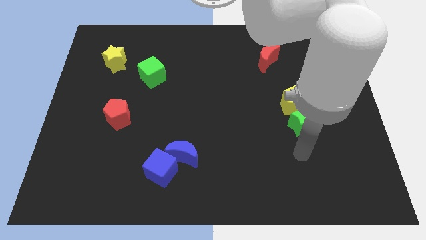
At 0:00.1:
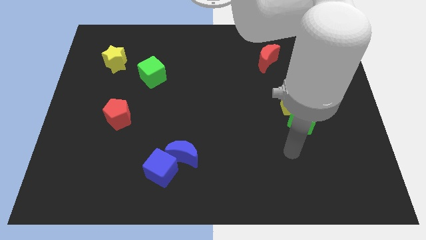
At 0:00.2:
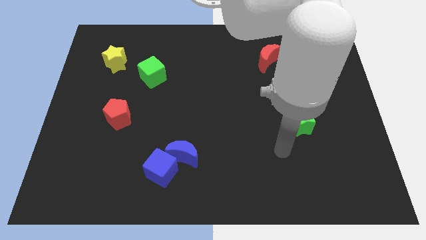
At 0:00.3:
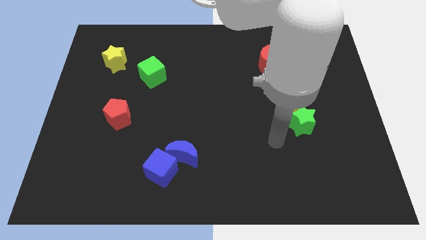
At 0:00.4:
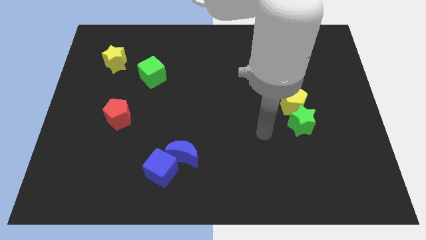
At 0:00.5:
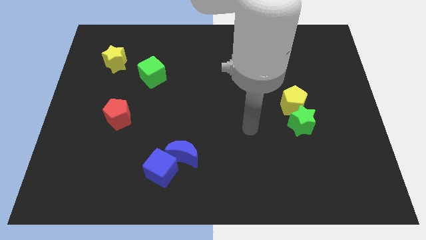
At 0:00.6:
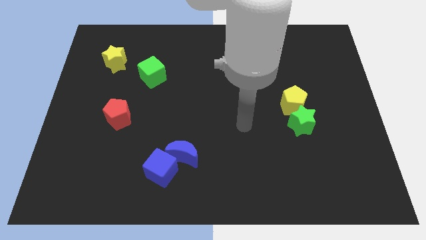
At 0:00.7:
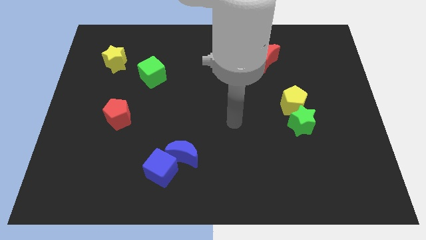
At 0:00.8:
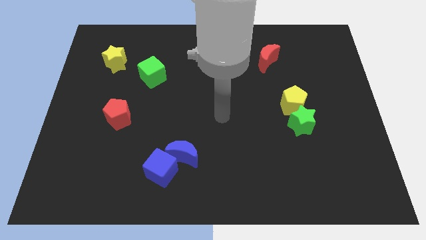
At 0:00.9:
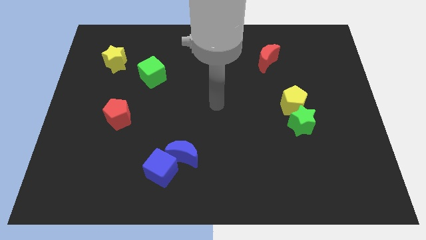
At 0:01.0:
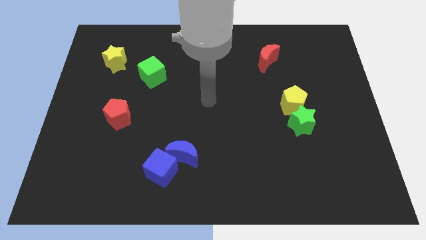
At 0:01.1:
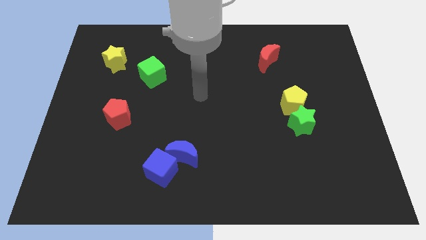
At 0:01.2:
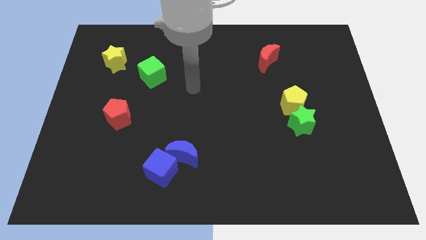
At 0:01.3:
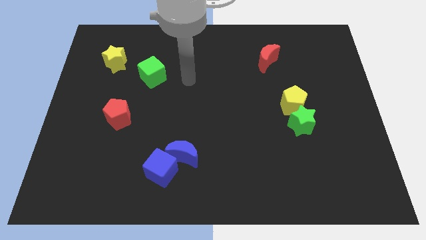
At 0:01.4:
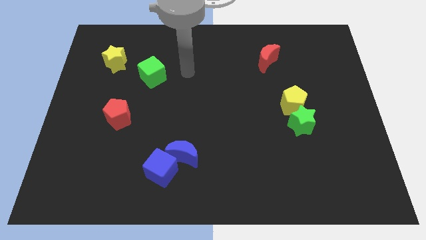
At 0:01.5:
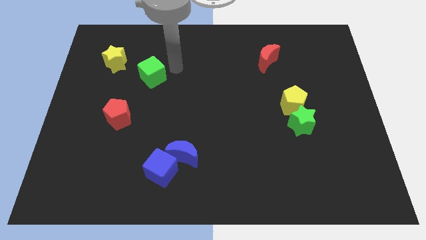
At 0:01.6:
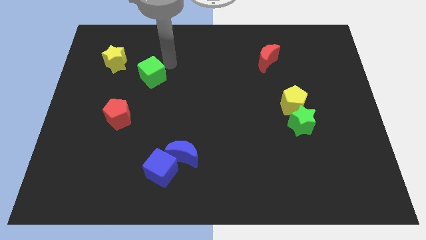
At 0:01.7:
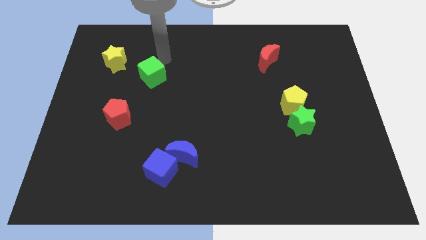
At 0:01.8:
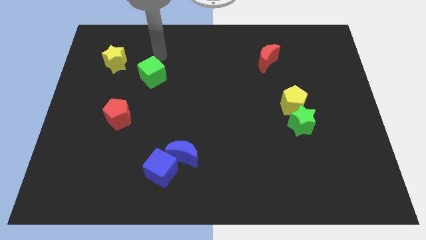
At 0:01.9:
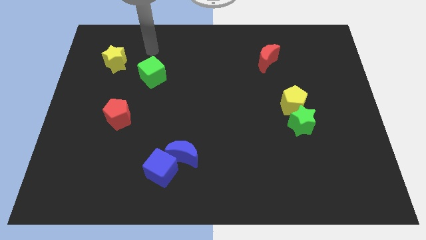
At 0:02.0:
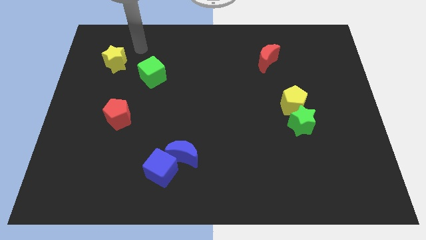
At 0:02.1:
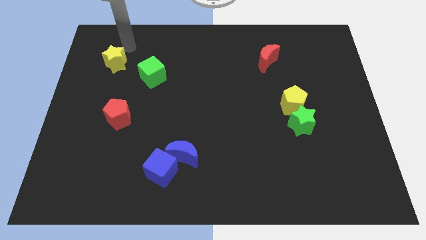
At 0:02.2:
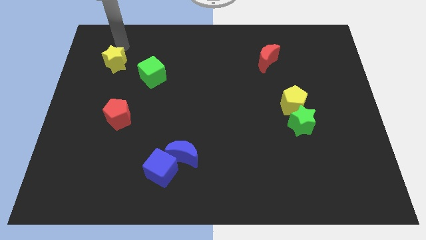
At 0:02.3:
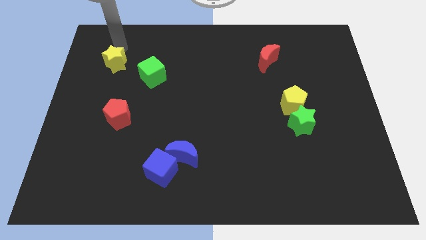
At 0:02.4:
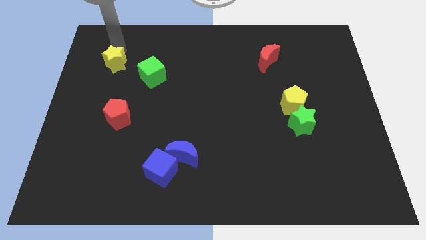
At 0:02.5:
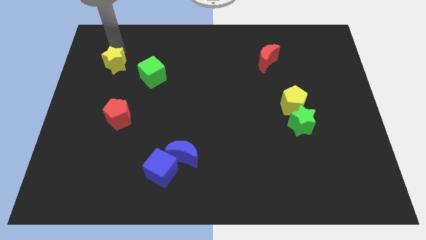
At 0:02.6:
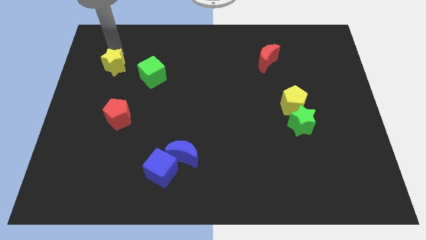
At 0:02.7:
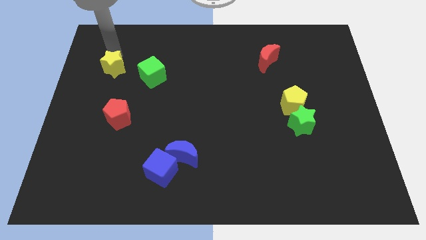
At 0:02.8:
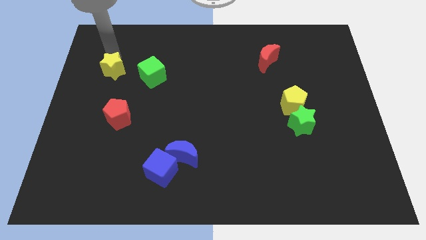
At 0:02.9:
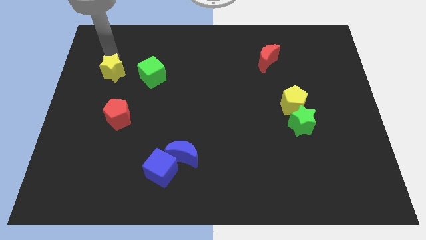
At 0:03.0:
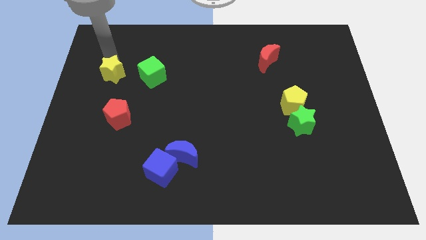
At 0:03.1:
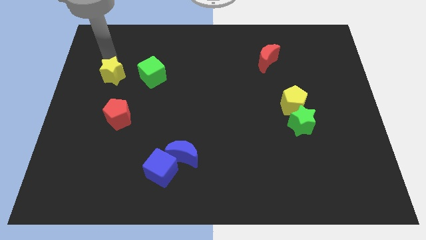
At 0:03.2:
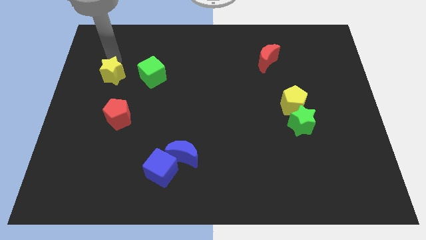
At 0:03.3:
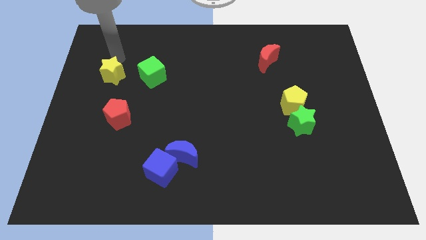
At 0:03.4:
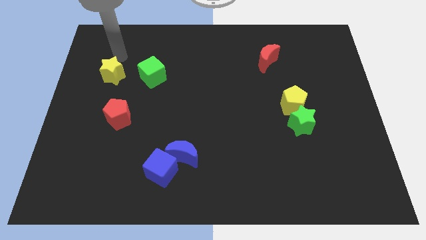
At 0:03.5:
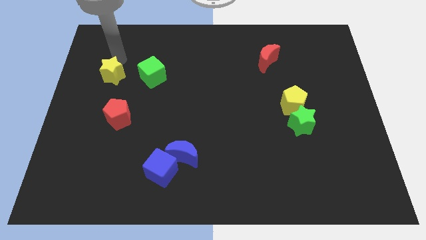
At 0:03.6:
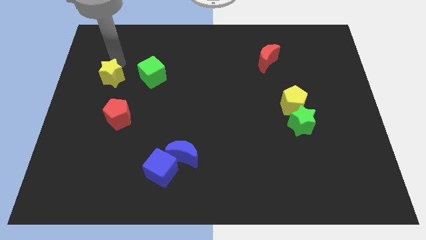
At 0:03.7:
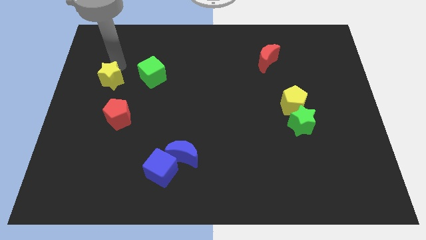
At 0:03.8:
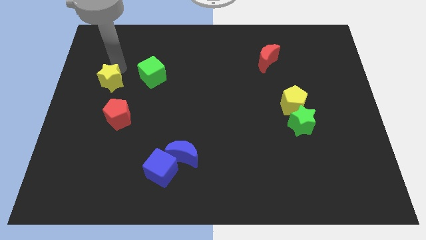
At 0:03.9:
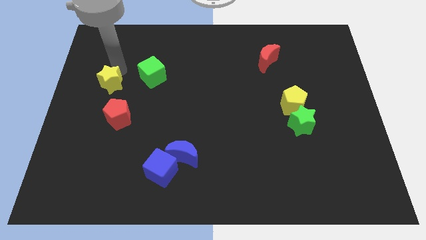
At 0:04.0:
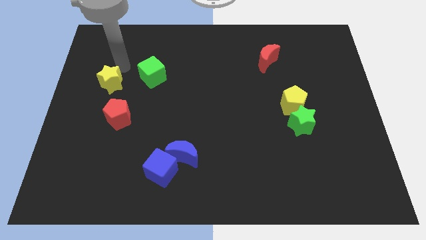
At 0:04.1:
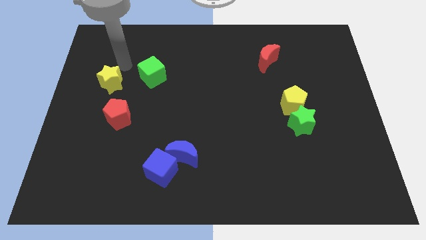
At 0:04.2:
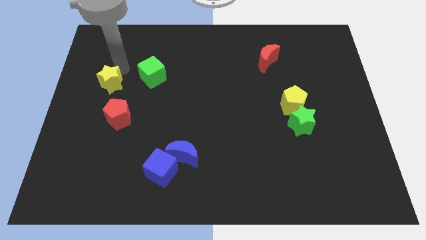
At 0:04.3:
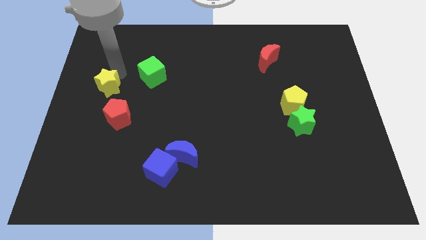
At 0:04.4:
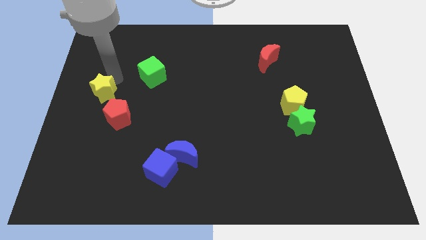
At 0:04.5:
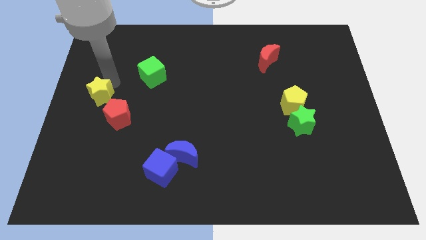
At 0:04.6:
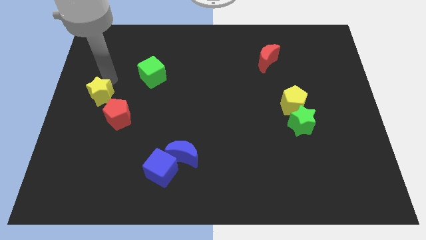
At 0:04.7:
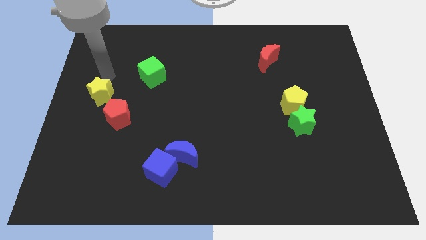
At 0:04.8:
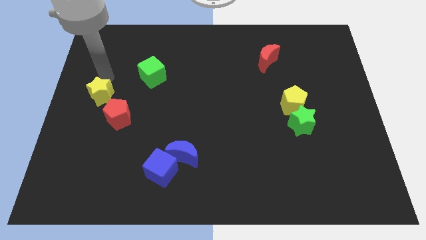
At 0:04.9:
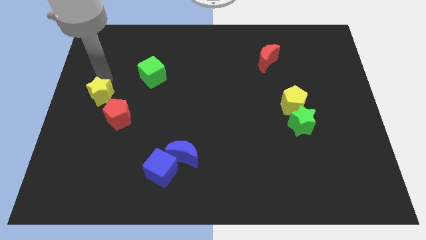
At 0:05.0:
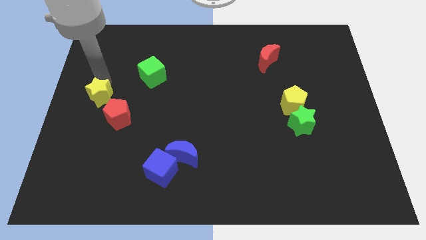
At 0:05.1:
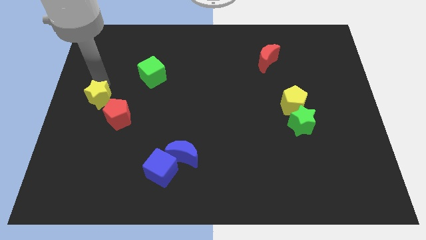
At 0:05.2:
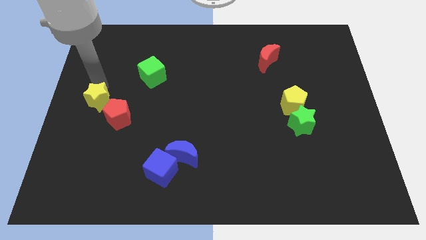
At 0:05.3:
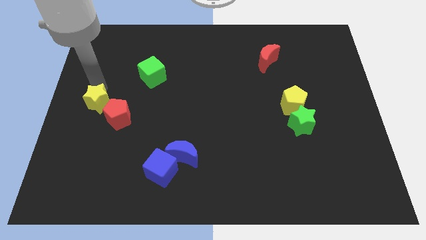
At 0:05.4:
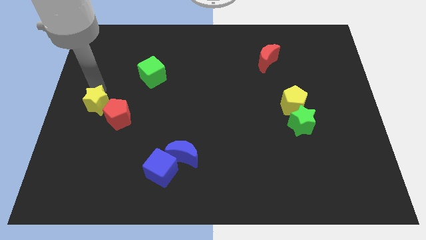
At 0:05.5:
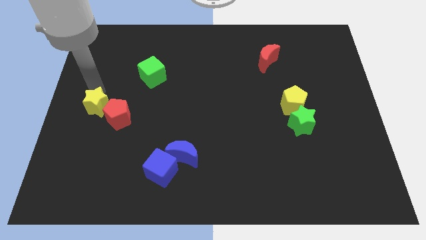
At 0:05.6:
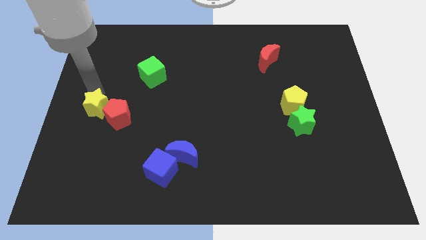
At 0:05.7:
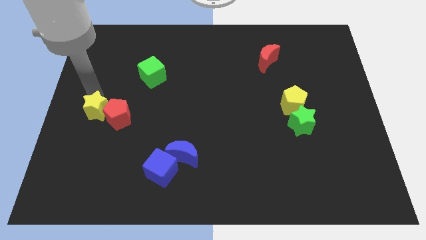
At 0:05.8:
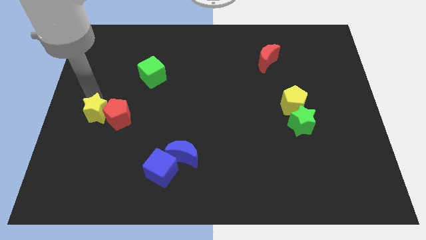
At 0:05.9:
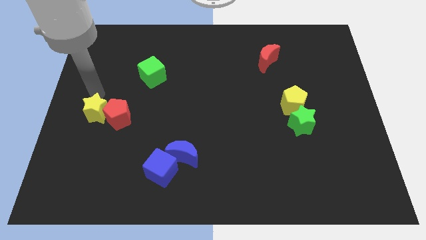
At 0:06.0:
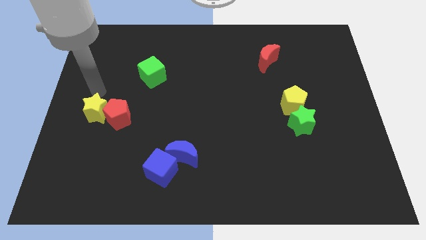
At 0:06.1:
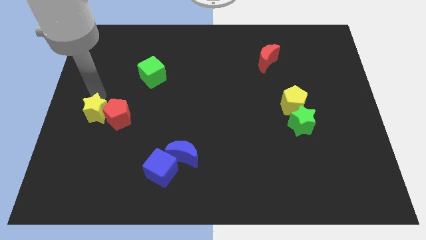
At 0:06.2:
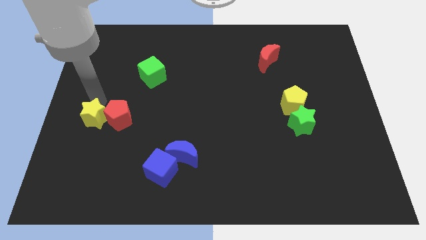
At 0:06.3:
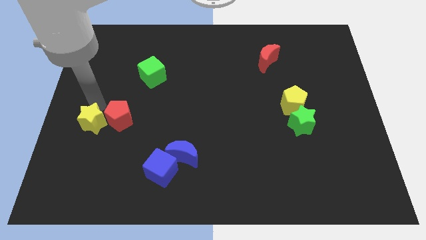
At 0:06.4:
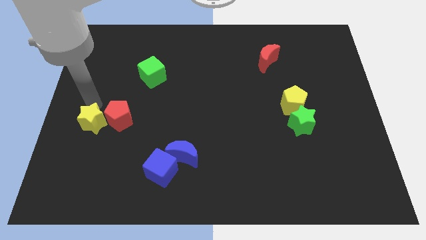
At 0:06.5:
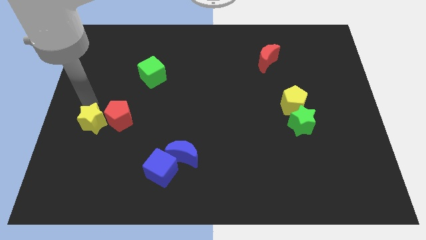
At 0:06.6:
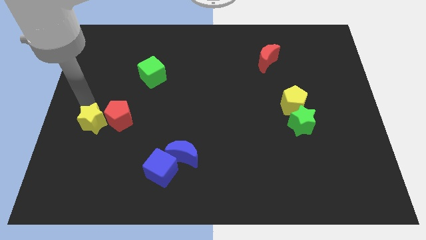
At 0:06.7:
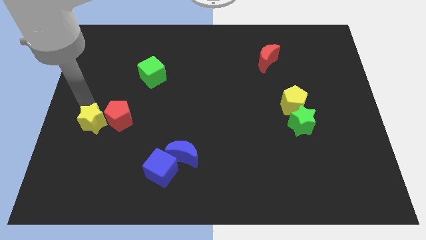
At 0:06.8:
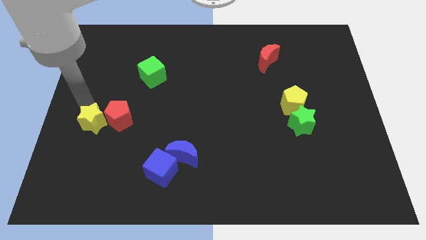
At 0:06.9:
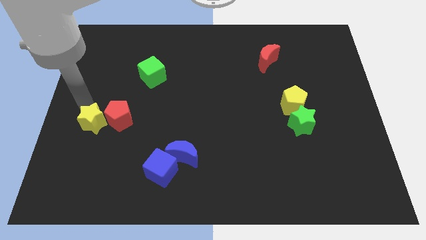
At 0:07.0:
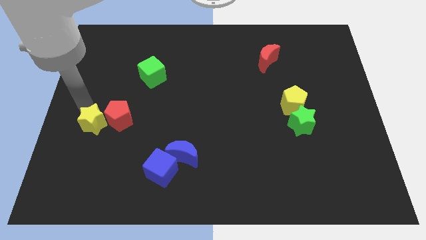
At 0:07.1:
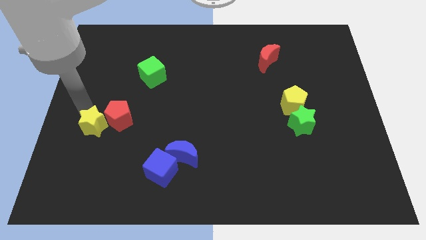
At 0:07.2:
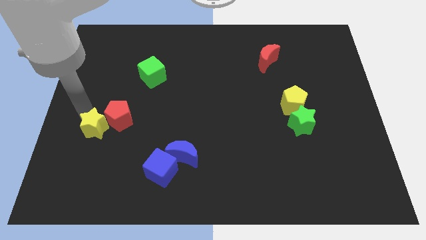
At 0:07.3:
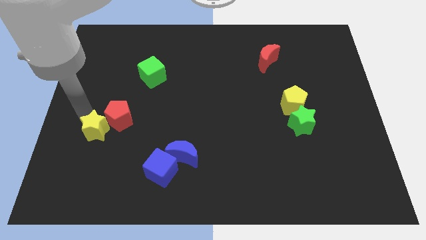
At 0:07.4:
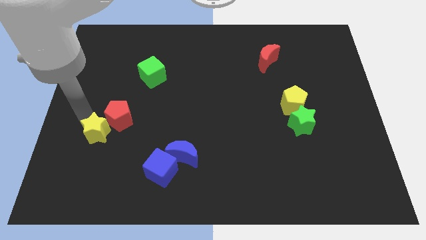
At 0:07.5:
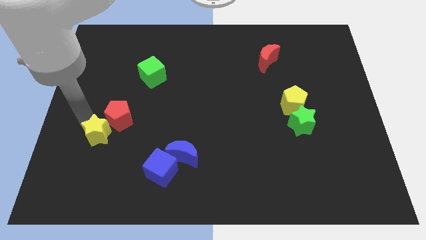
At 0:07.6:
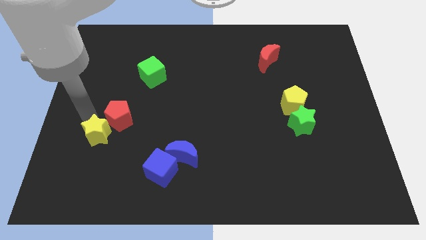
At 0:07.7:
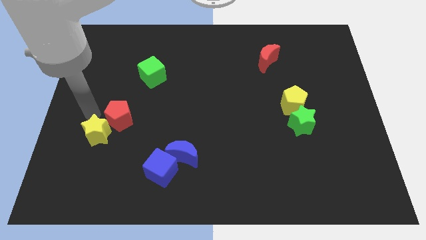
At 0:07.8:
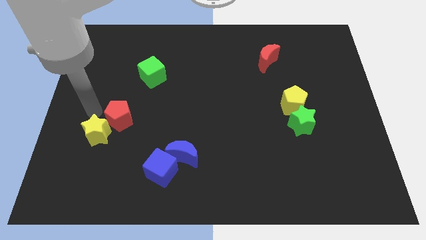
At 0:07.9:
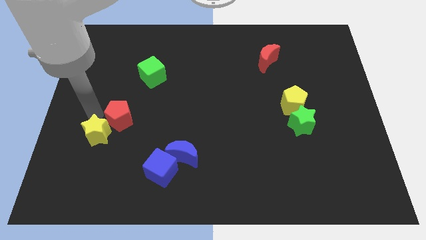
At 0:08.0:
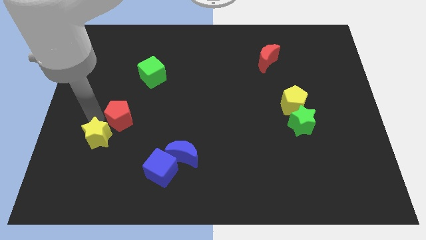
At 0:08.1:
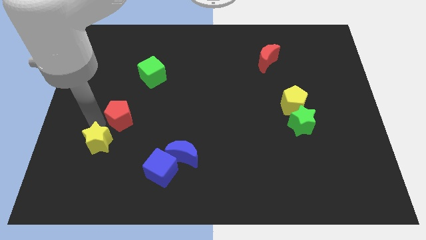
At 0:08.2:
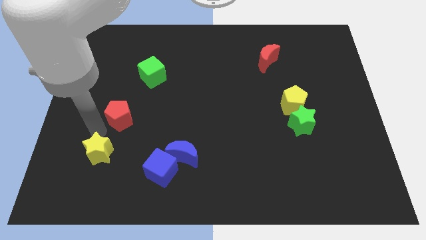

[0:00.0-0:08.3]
move the yellow star just left of the blue cube
